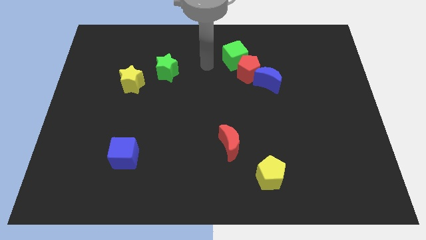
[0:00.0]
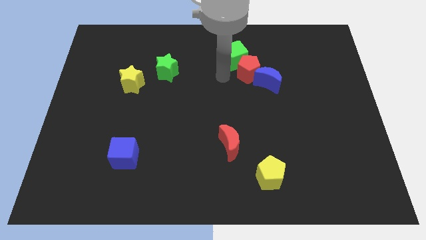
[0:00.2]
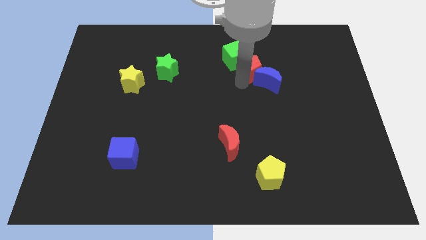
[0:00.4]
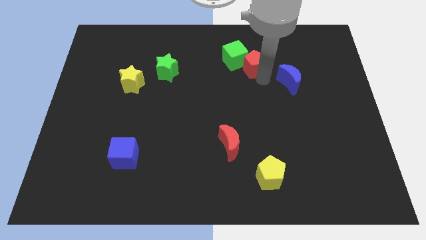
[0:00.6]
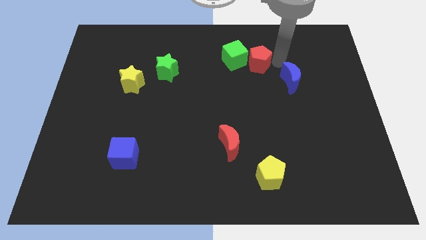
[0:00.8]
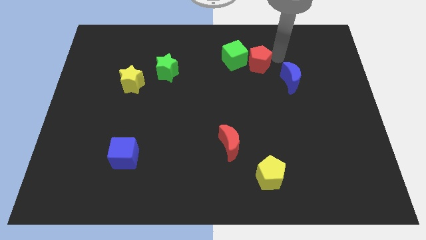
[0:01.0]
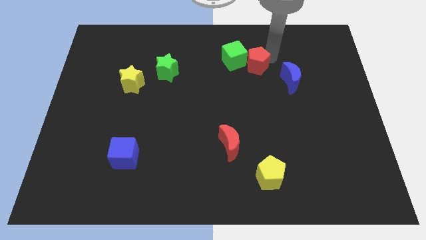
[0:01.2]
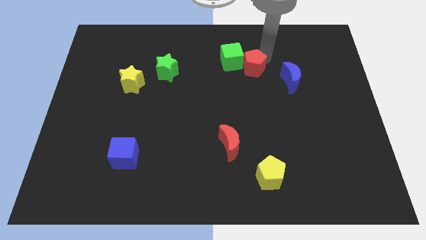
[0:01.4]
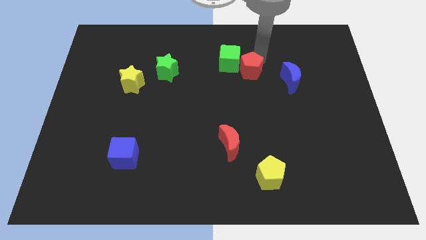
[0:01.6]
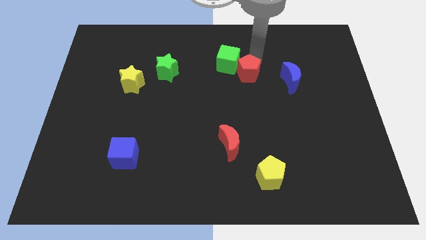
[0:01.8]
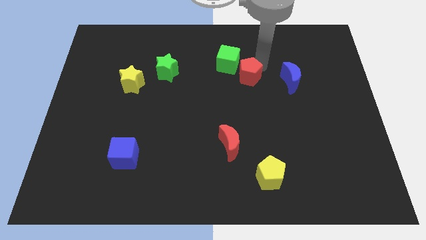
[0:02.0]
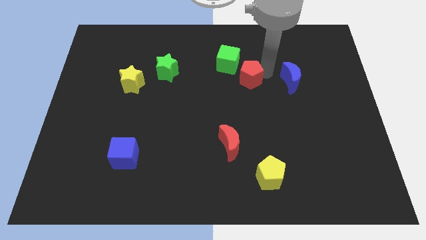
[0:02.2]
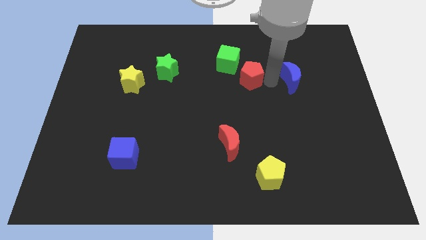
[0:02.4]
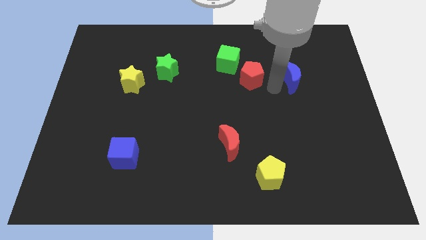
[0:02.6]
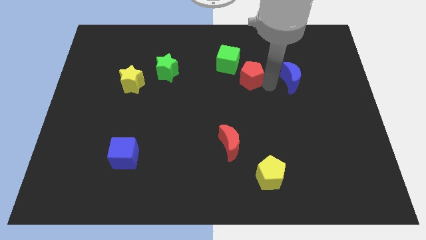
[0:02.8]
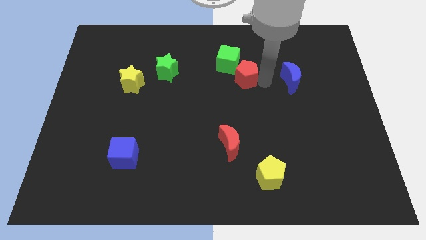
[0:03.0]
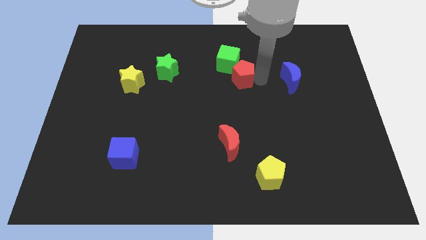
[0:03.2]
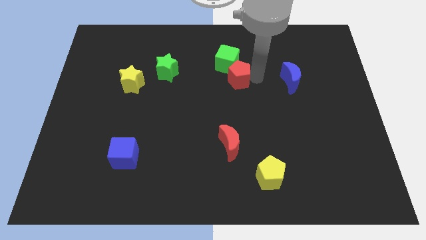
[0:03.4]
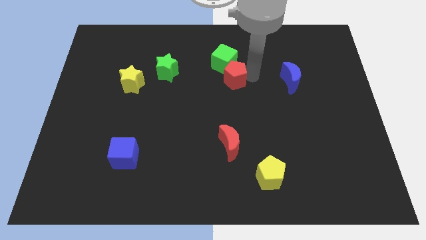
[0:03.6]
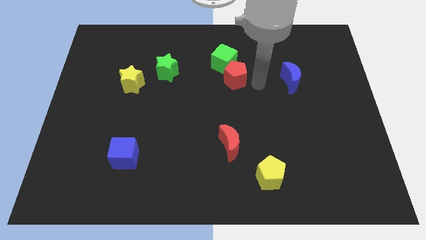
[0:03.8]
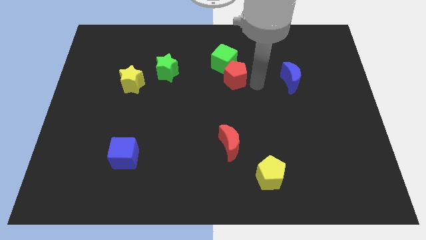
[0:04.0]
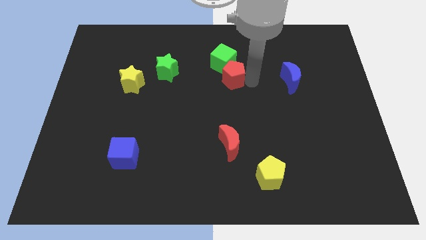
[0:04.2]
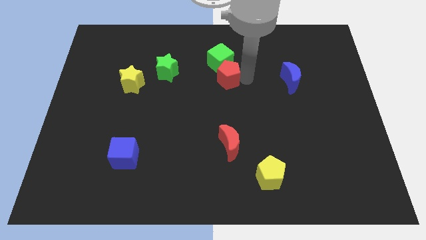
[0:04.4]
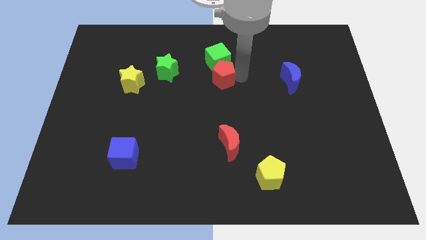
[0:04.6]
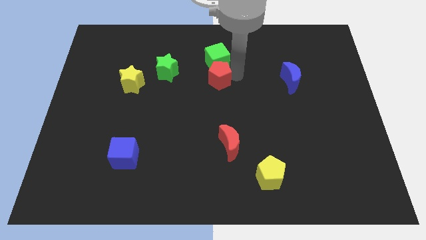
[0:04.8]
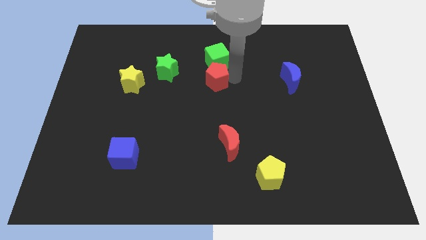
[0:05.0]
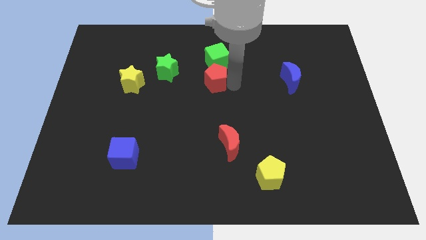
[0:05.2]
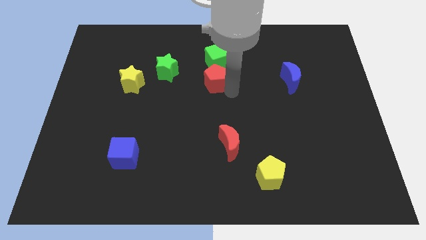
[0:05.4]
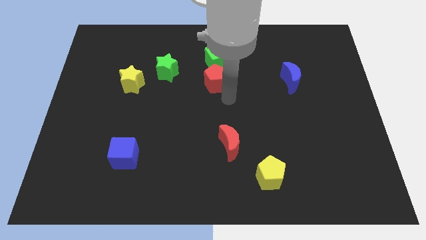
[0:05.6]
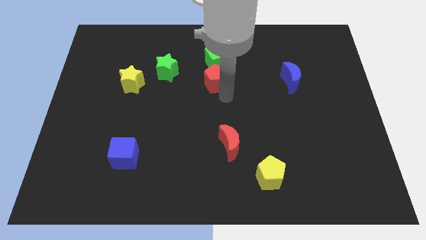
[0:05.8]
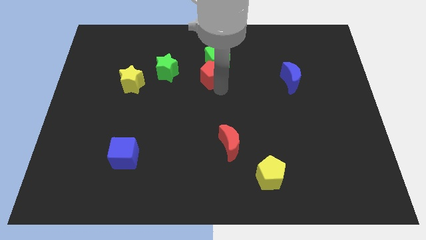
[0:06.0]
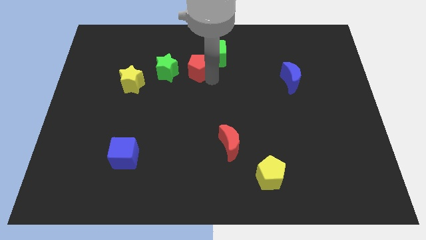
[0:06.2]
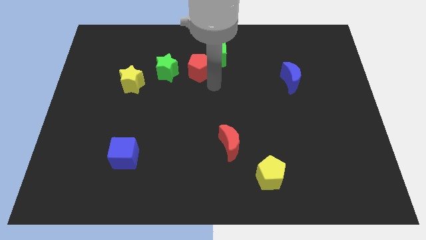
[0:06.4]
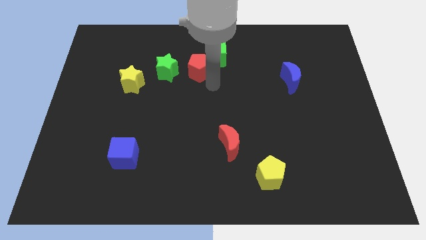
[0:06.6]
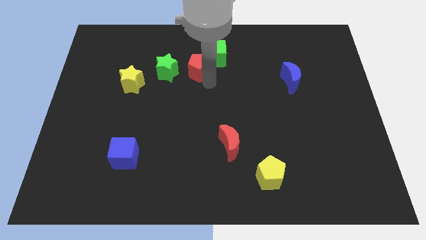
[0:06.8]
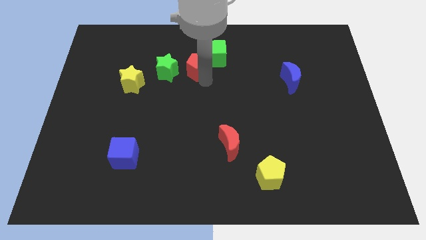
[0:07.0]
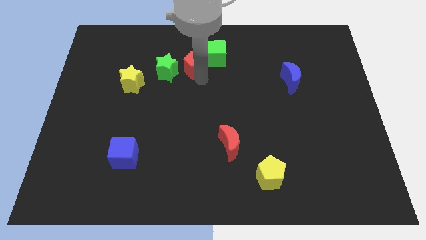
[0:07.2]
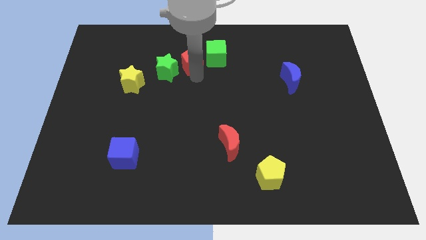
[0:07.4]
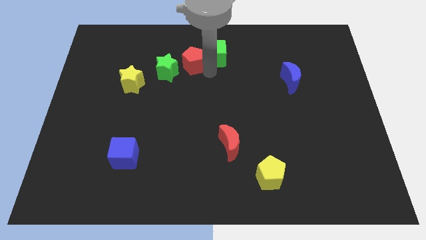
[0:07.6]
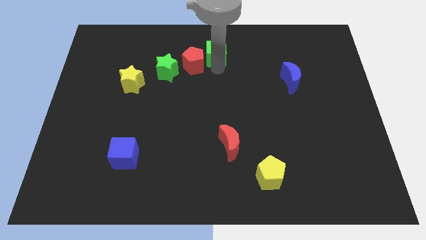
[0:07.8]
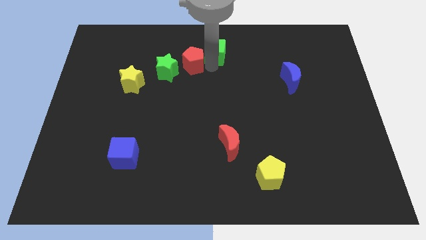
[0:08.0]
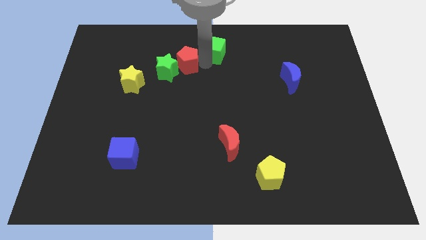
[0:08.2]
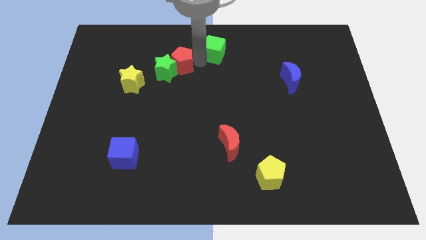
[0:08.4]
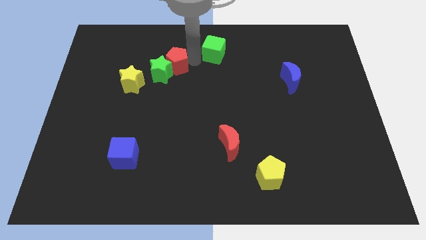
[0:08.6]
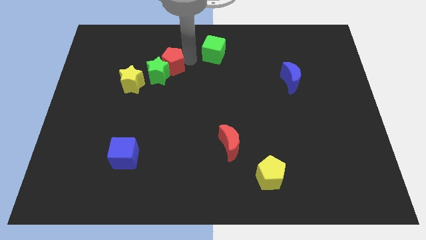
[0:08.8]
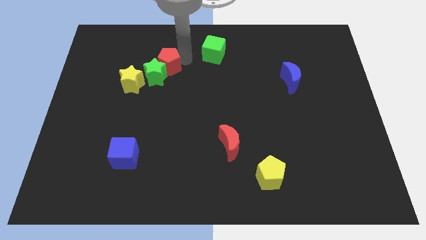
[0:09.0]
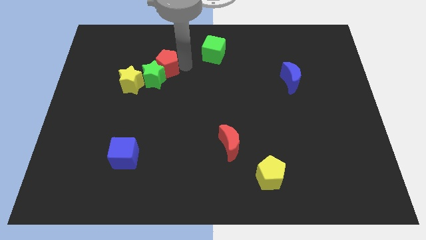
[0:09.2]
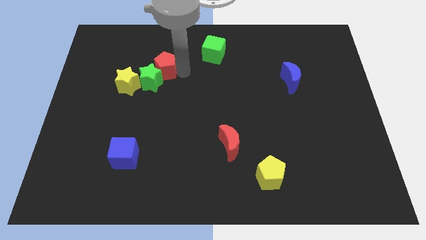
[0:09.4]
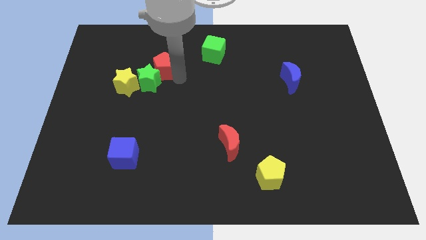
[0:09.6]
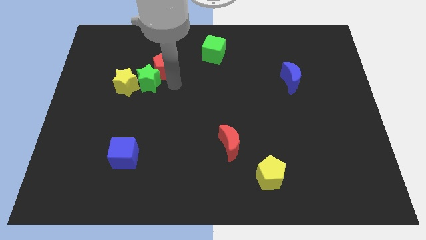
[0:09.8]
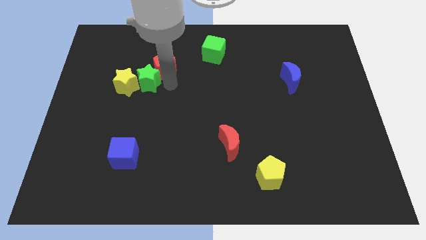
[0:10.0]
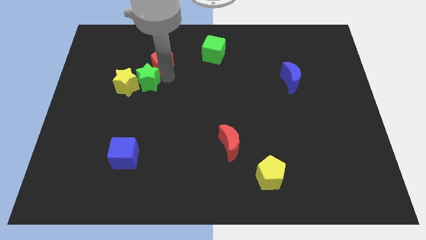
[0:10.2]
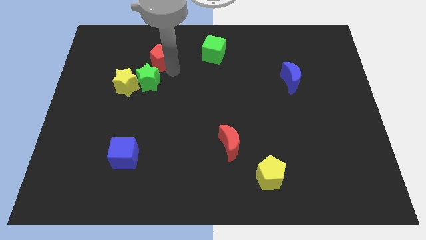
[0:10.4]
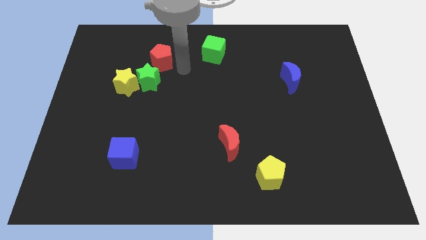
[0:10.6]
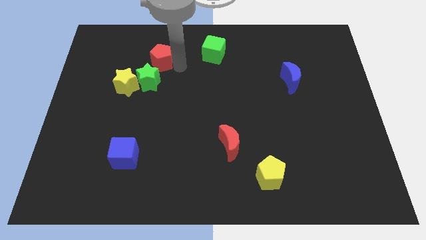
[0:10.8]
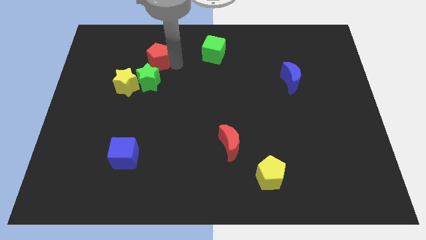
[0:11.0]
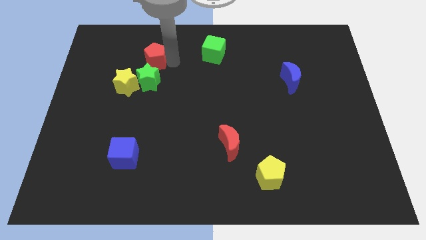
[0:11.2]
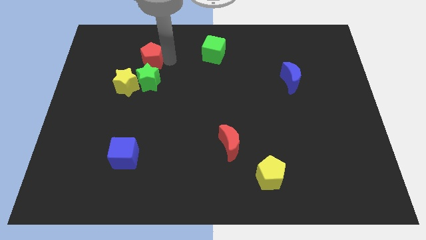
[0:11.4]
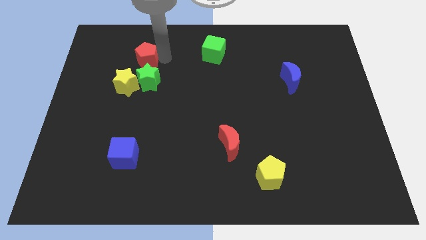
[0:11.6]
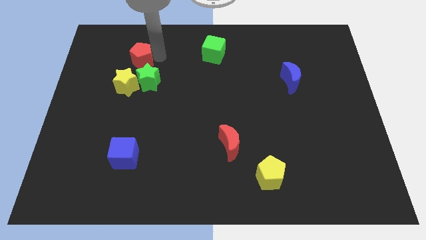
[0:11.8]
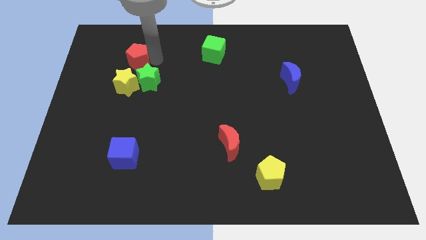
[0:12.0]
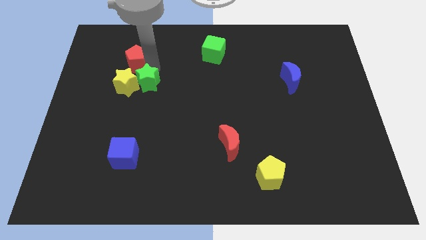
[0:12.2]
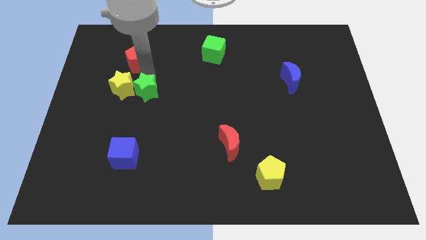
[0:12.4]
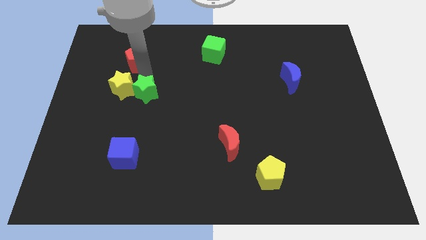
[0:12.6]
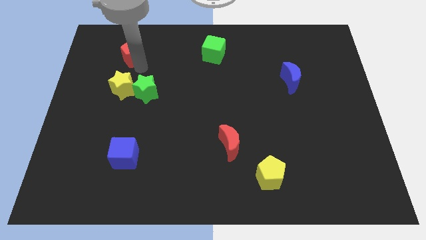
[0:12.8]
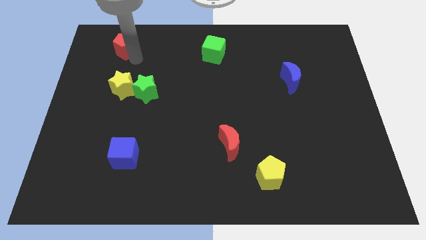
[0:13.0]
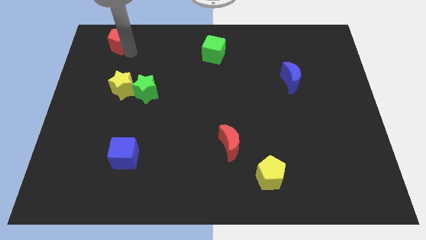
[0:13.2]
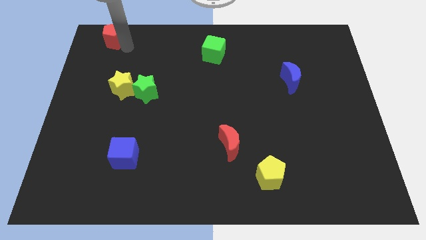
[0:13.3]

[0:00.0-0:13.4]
slide the red pentagon to the top left

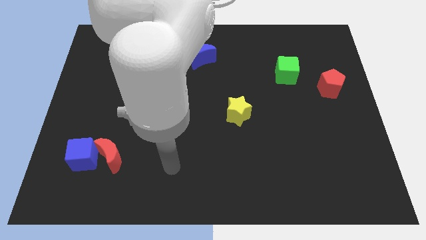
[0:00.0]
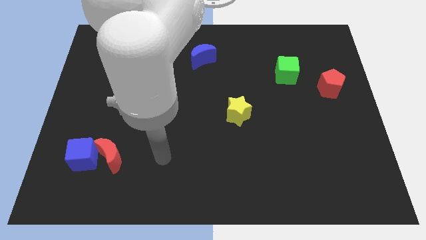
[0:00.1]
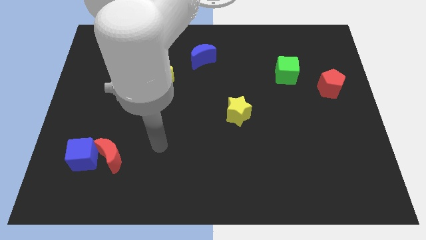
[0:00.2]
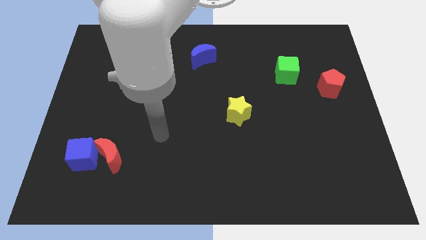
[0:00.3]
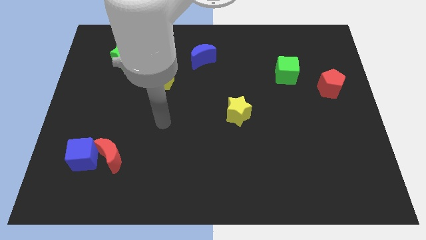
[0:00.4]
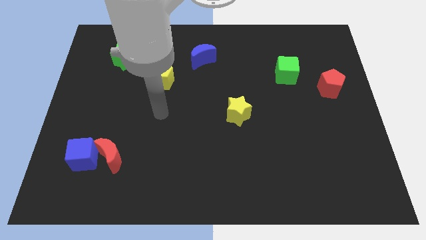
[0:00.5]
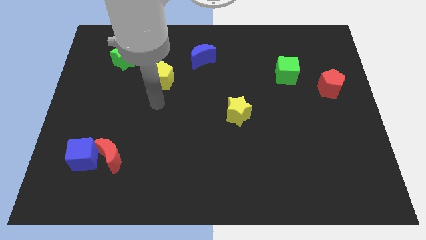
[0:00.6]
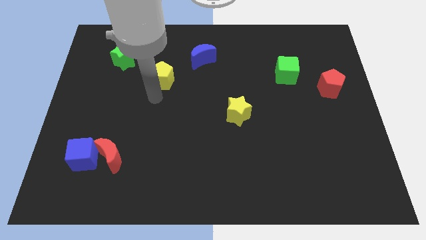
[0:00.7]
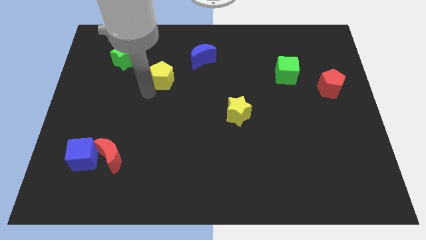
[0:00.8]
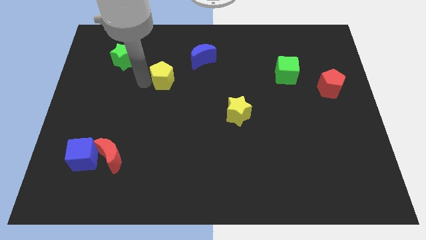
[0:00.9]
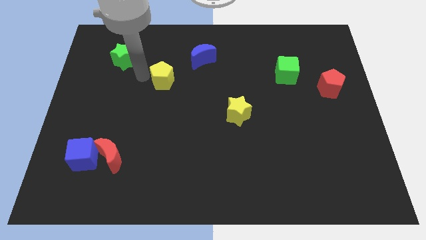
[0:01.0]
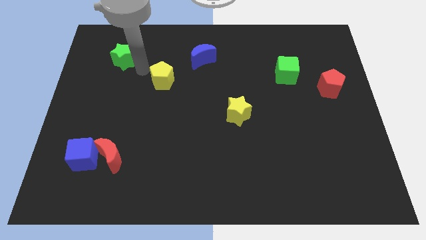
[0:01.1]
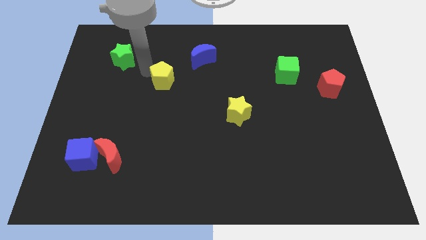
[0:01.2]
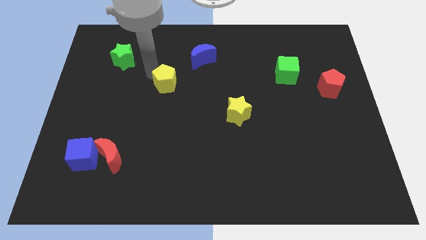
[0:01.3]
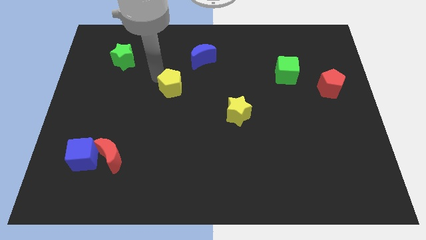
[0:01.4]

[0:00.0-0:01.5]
slide the yellow pentagon to the center of the board
